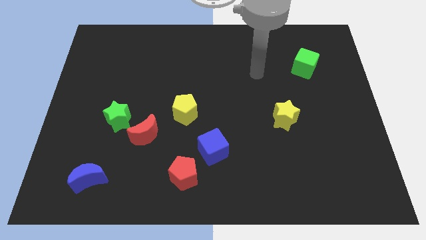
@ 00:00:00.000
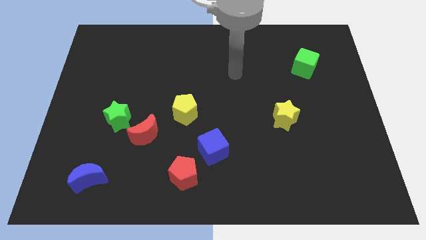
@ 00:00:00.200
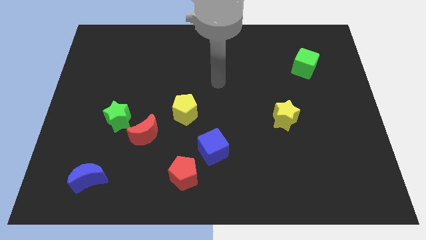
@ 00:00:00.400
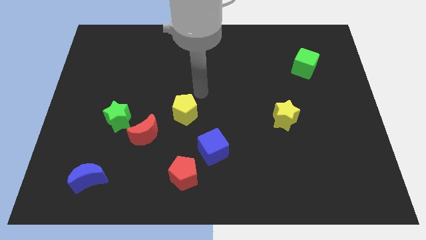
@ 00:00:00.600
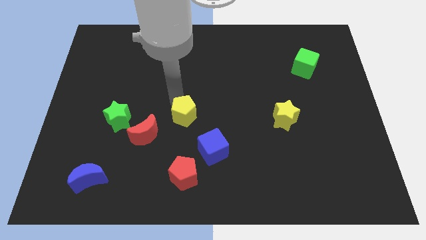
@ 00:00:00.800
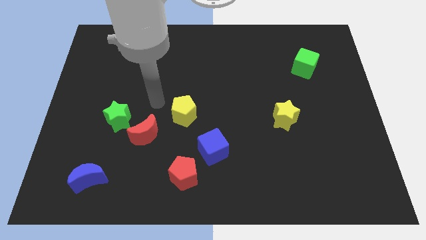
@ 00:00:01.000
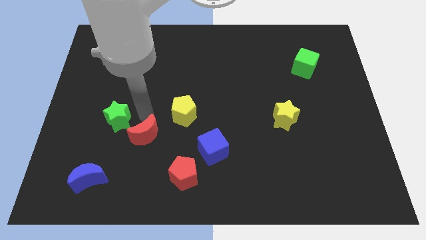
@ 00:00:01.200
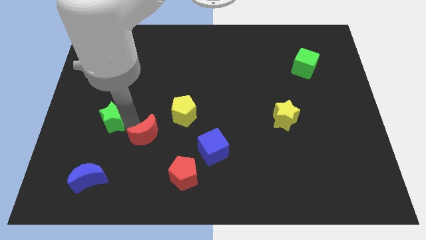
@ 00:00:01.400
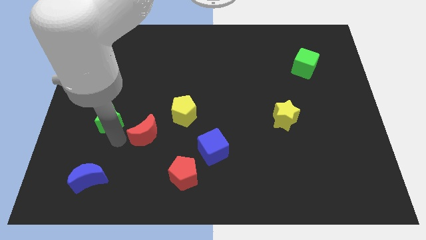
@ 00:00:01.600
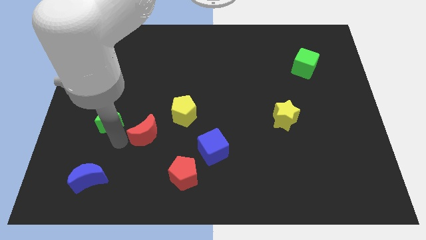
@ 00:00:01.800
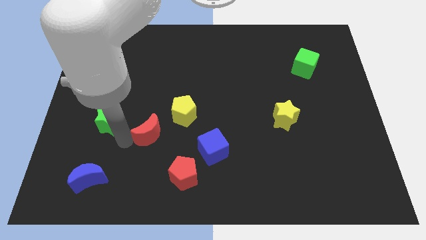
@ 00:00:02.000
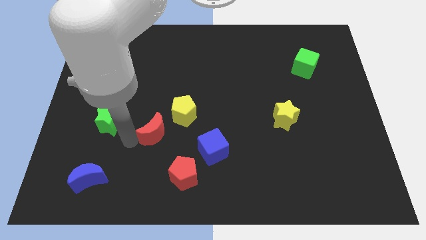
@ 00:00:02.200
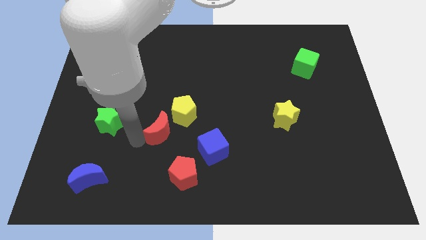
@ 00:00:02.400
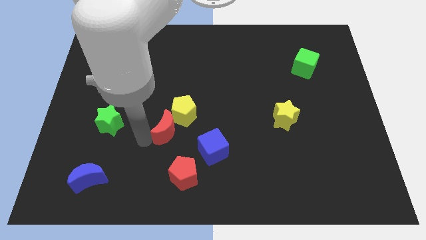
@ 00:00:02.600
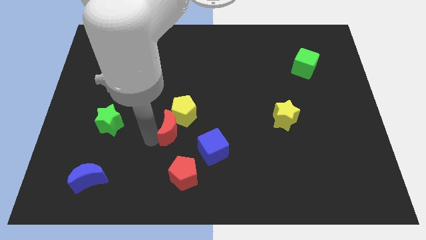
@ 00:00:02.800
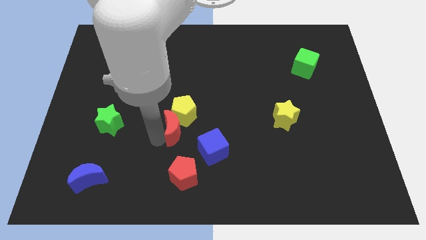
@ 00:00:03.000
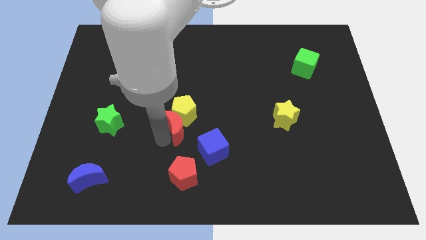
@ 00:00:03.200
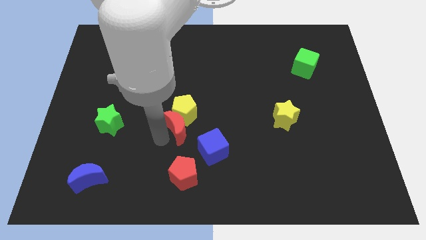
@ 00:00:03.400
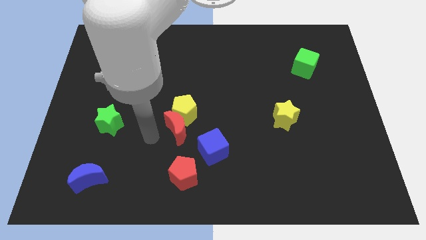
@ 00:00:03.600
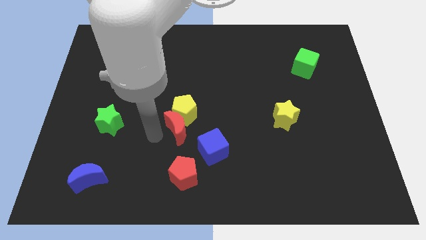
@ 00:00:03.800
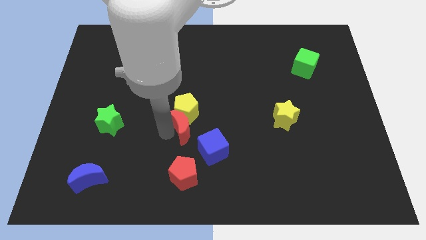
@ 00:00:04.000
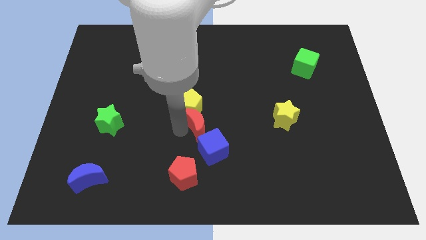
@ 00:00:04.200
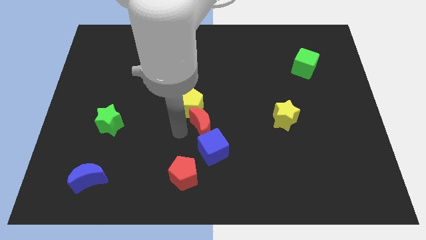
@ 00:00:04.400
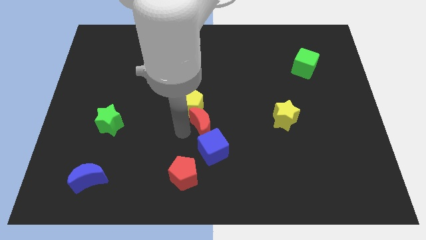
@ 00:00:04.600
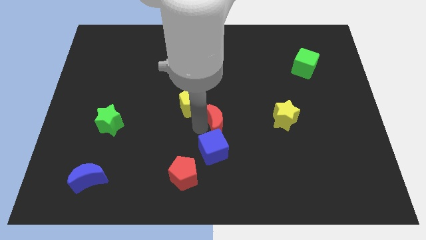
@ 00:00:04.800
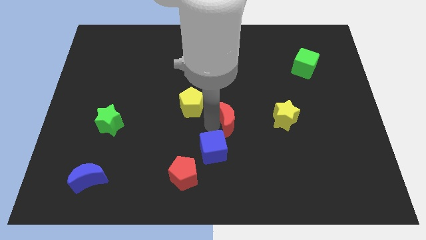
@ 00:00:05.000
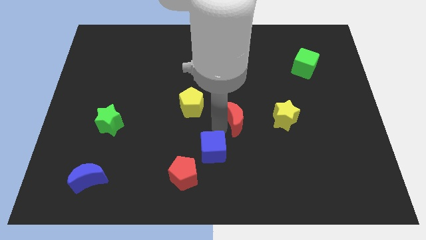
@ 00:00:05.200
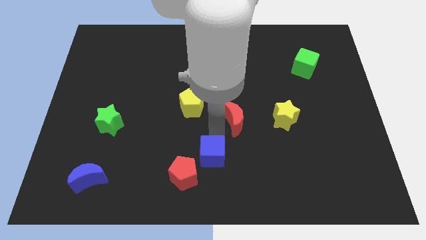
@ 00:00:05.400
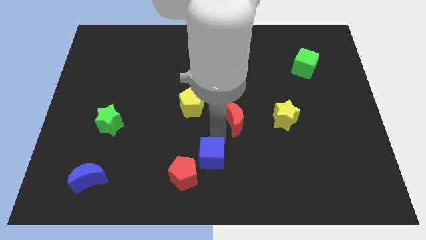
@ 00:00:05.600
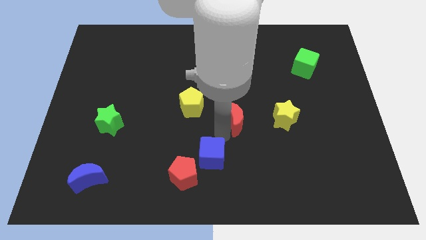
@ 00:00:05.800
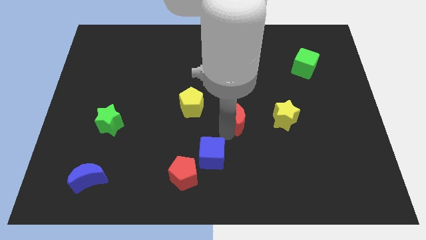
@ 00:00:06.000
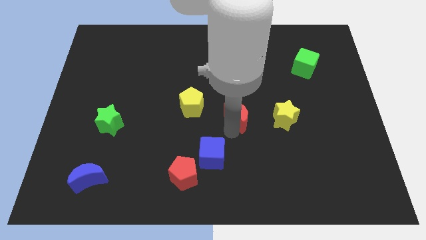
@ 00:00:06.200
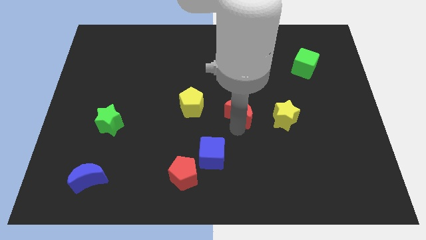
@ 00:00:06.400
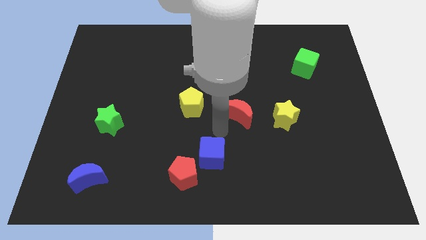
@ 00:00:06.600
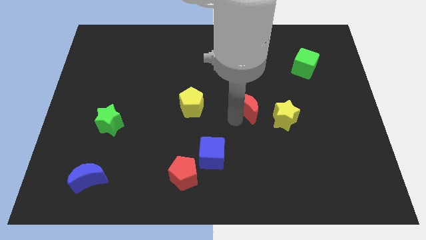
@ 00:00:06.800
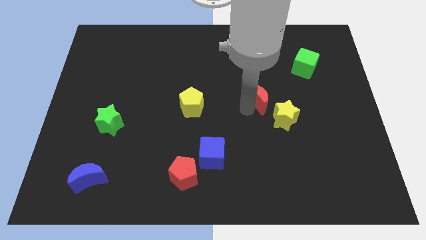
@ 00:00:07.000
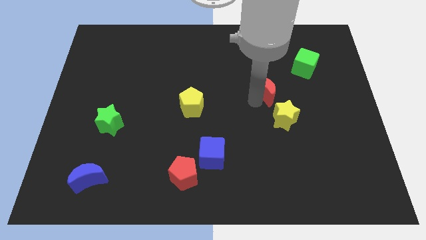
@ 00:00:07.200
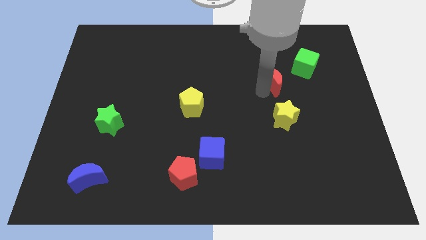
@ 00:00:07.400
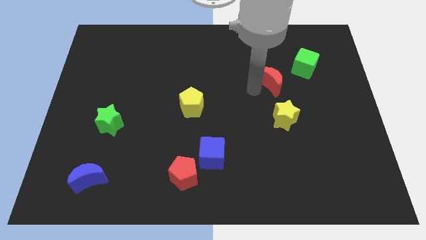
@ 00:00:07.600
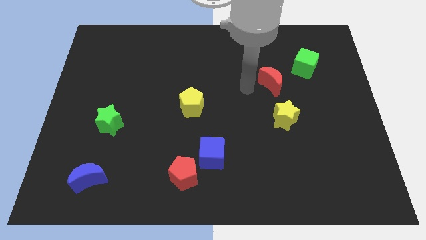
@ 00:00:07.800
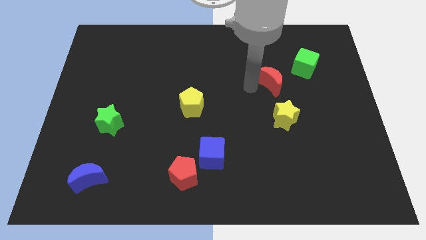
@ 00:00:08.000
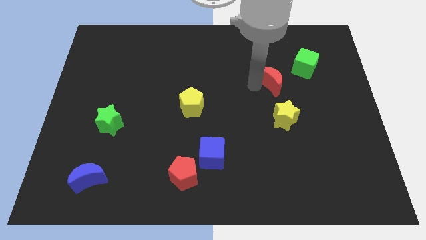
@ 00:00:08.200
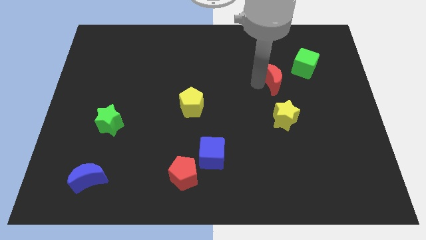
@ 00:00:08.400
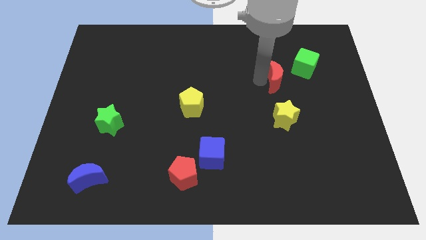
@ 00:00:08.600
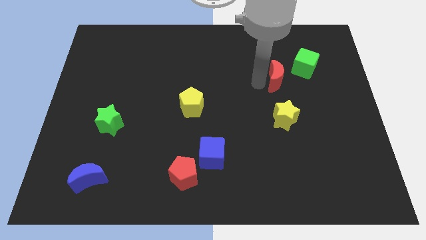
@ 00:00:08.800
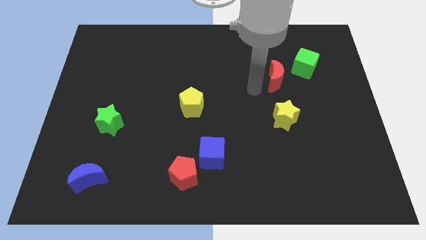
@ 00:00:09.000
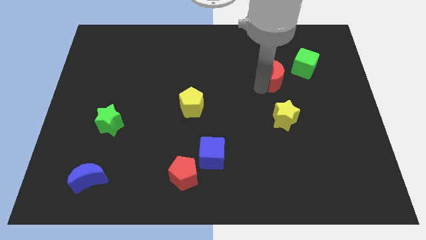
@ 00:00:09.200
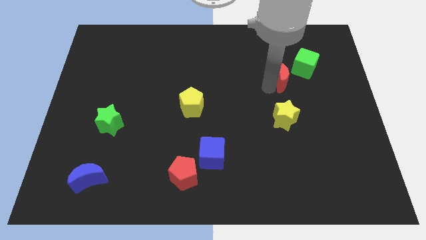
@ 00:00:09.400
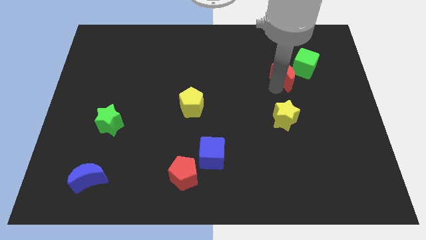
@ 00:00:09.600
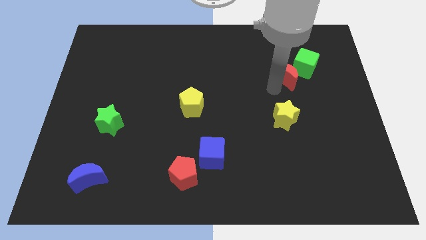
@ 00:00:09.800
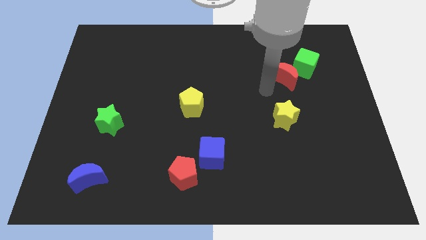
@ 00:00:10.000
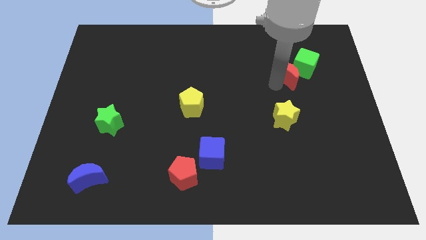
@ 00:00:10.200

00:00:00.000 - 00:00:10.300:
move the red moon next to the green cube

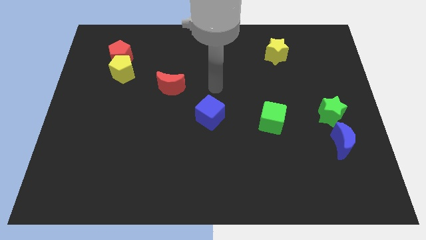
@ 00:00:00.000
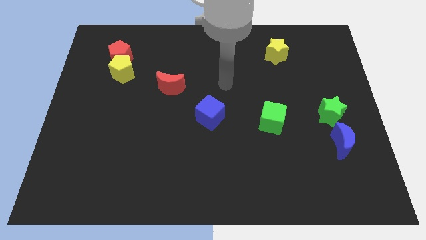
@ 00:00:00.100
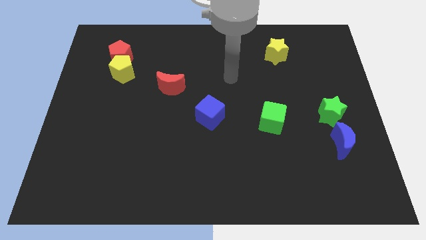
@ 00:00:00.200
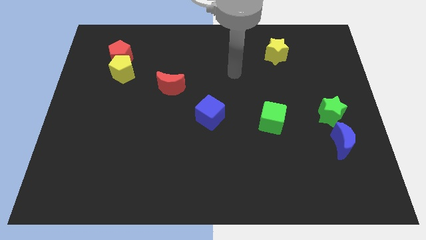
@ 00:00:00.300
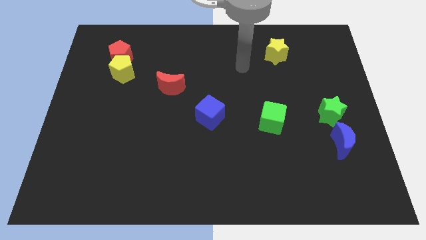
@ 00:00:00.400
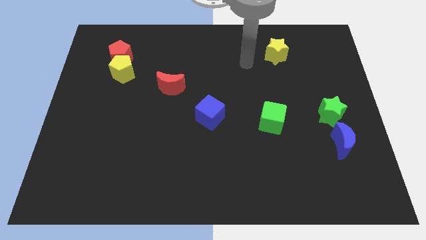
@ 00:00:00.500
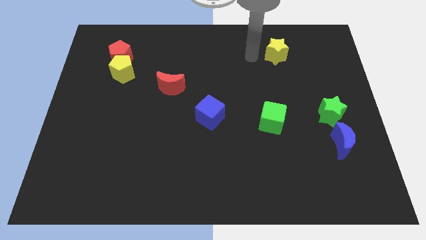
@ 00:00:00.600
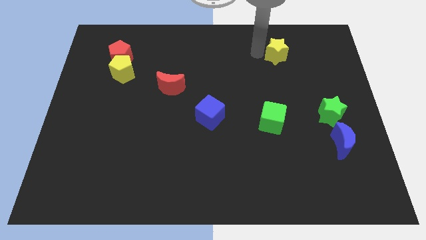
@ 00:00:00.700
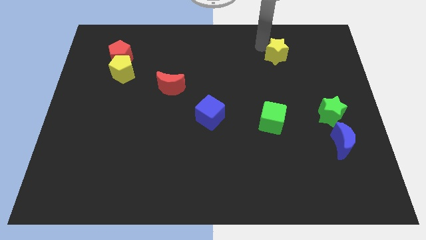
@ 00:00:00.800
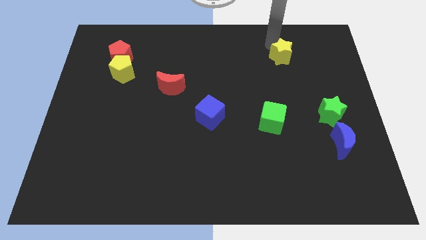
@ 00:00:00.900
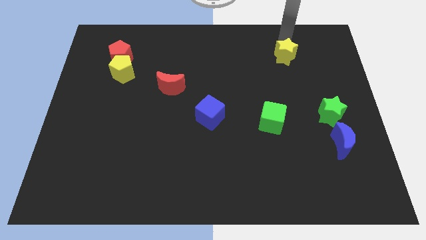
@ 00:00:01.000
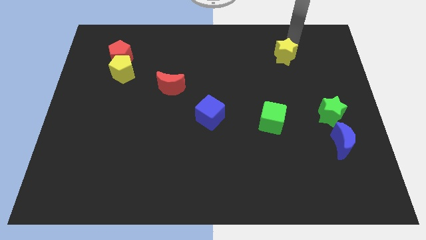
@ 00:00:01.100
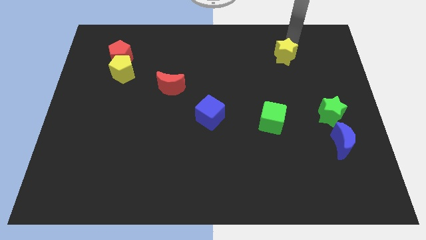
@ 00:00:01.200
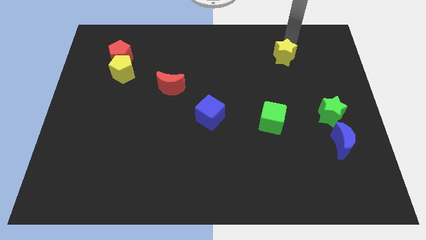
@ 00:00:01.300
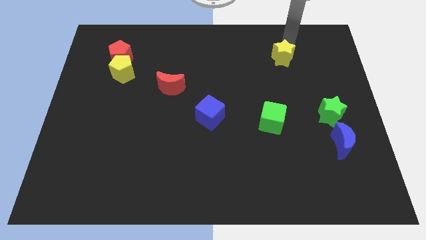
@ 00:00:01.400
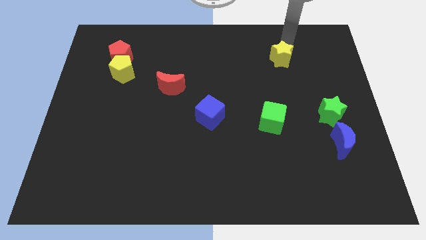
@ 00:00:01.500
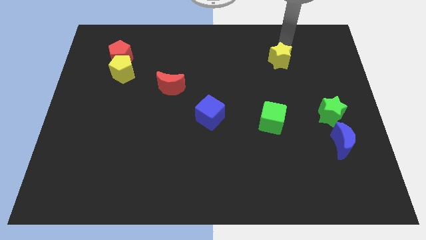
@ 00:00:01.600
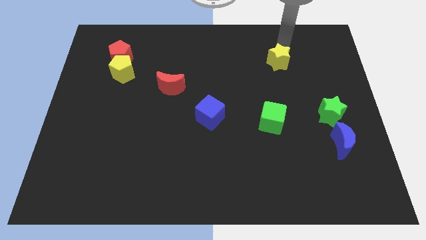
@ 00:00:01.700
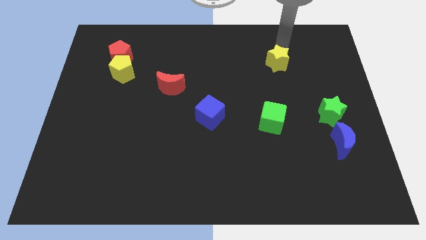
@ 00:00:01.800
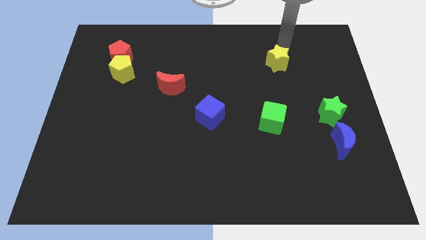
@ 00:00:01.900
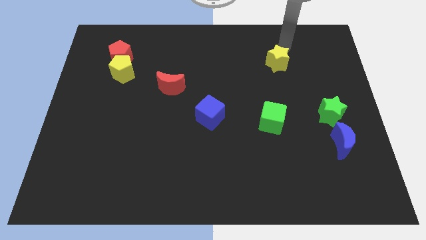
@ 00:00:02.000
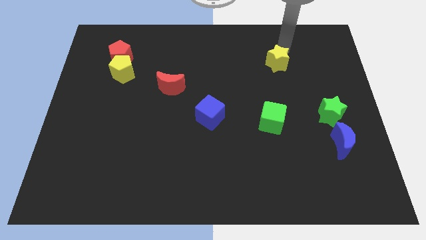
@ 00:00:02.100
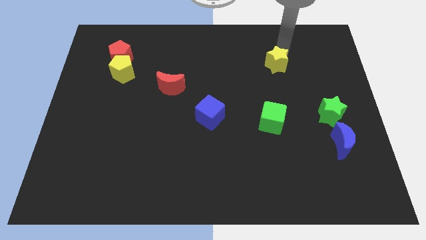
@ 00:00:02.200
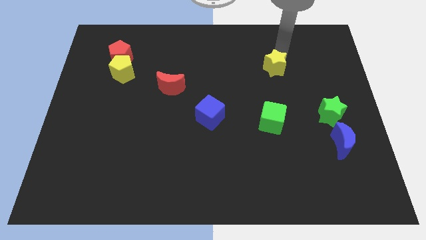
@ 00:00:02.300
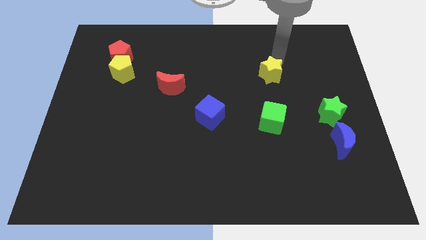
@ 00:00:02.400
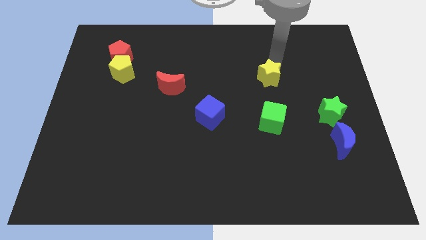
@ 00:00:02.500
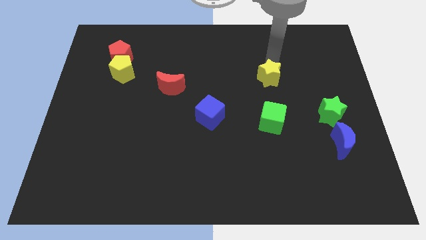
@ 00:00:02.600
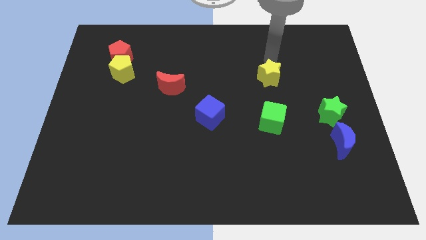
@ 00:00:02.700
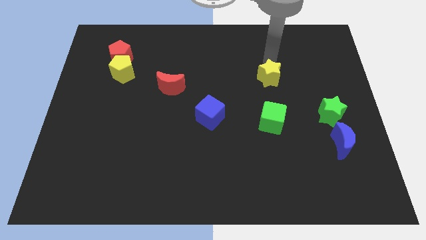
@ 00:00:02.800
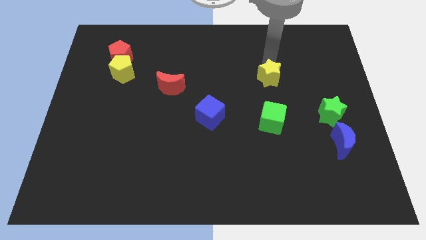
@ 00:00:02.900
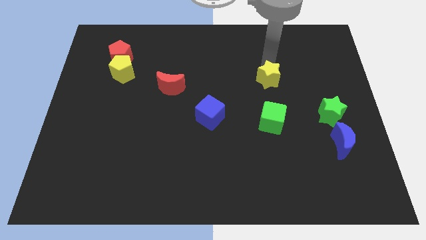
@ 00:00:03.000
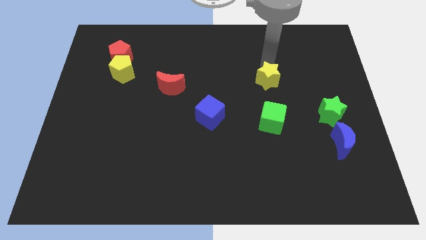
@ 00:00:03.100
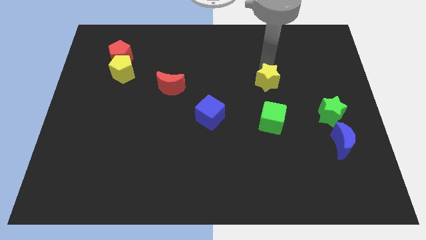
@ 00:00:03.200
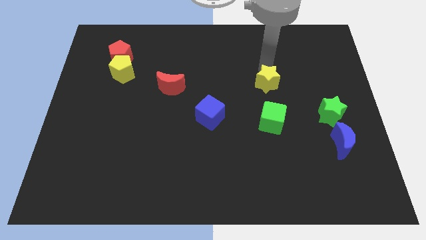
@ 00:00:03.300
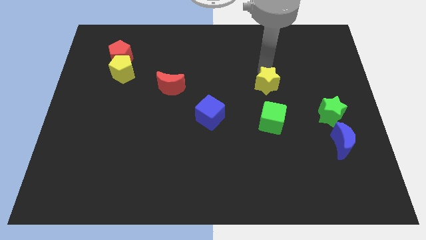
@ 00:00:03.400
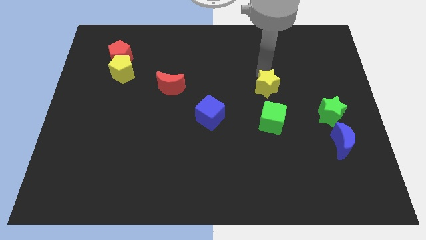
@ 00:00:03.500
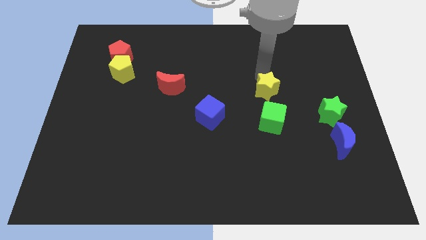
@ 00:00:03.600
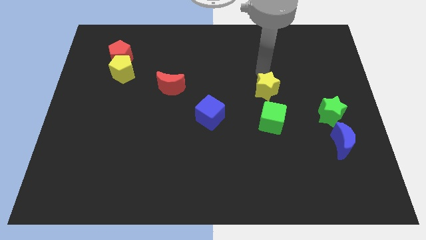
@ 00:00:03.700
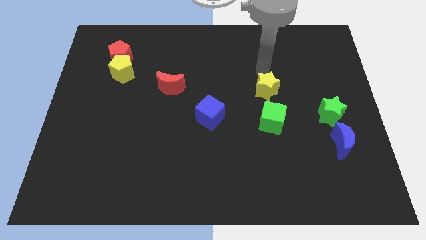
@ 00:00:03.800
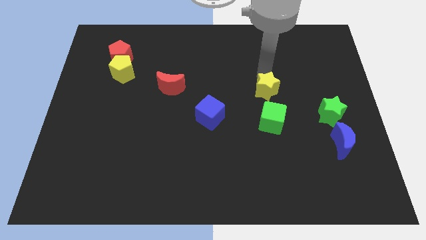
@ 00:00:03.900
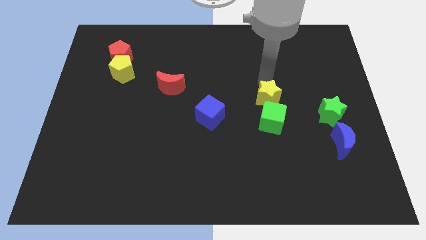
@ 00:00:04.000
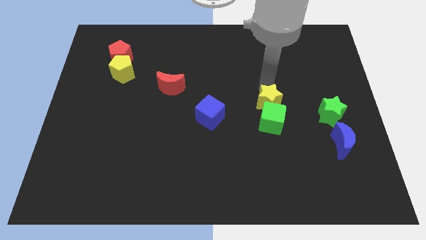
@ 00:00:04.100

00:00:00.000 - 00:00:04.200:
push the yellow star to the green cube
